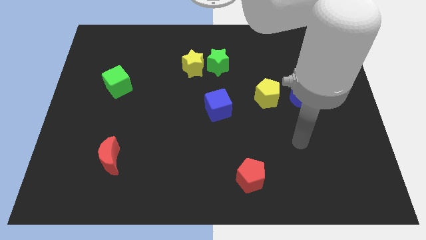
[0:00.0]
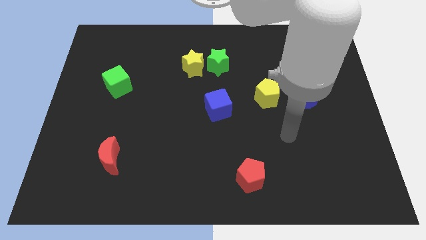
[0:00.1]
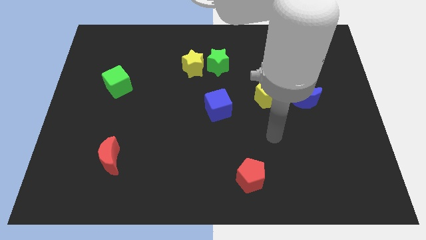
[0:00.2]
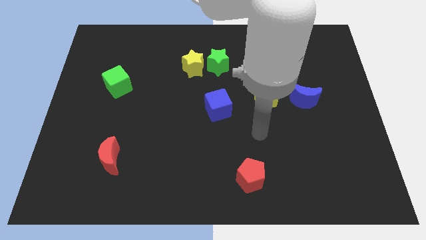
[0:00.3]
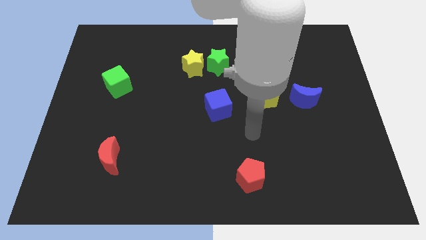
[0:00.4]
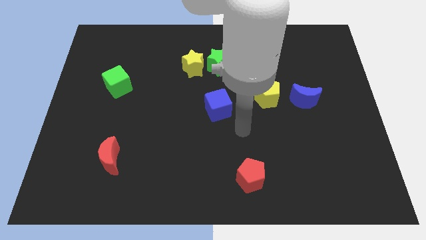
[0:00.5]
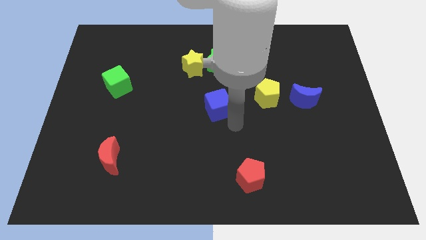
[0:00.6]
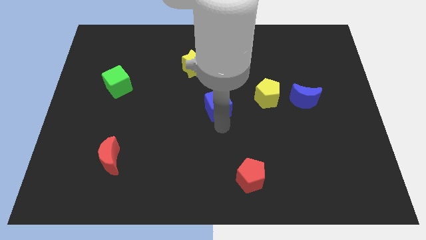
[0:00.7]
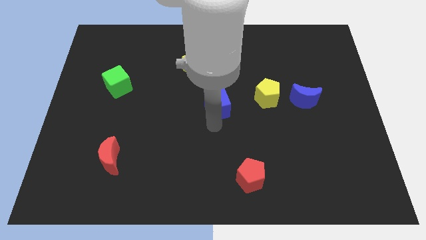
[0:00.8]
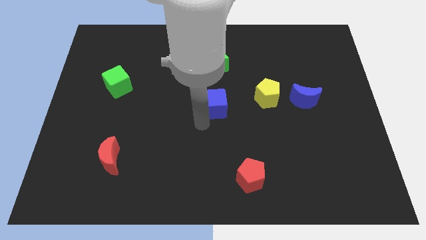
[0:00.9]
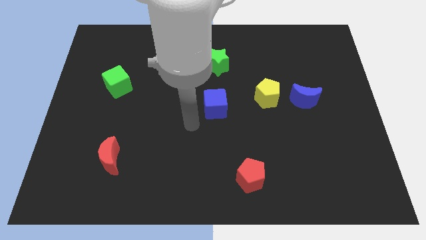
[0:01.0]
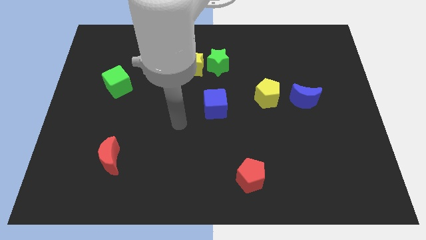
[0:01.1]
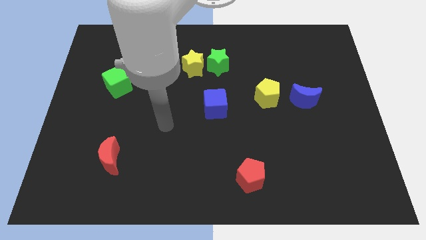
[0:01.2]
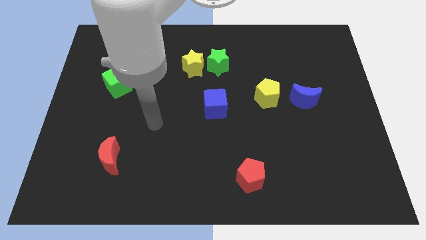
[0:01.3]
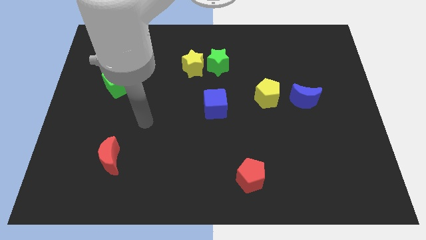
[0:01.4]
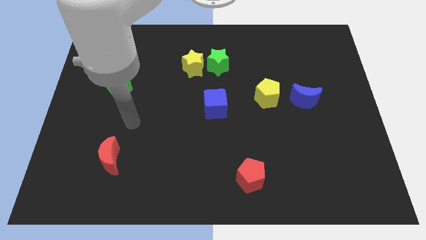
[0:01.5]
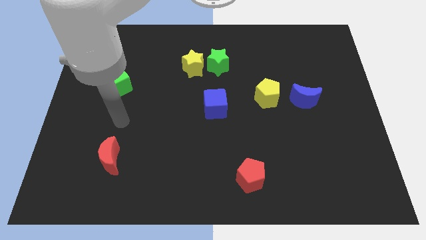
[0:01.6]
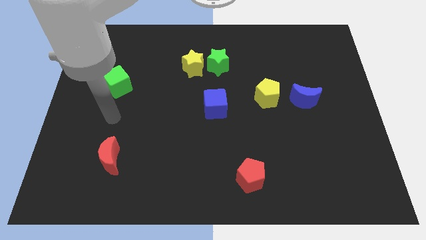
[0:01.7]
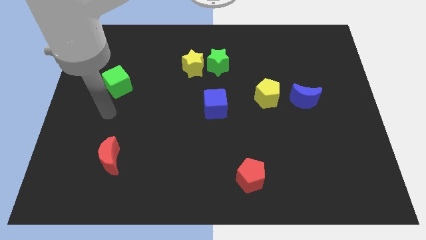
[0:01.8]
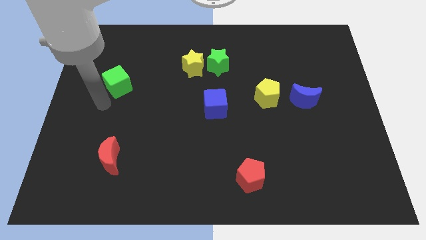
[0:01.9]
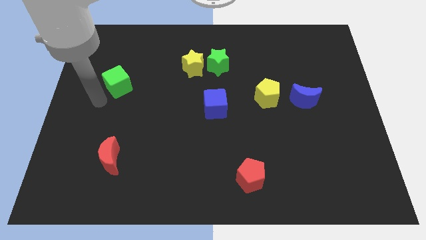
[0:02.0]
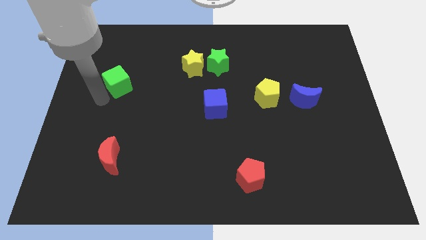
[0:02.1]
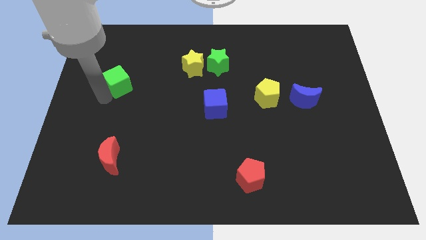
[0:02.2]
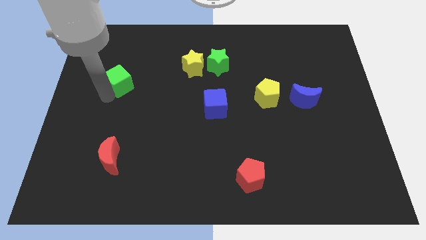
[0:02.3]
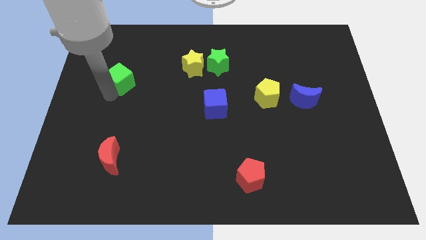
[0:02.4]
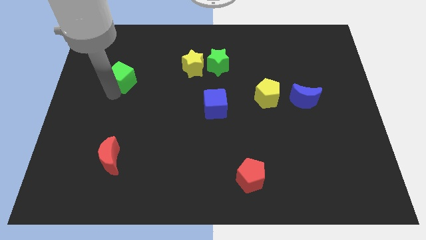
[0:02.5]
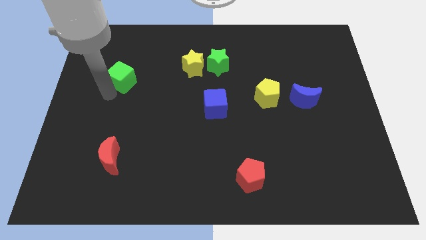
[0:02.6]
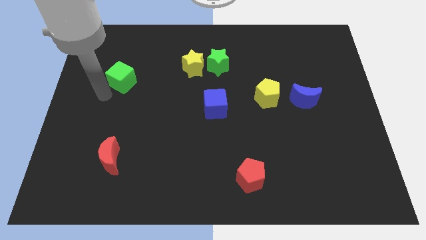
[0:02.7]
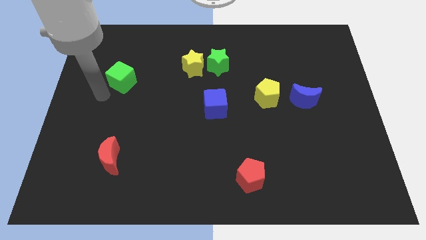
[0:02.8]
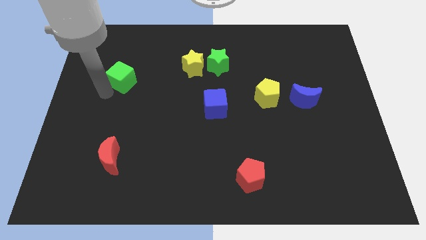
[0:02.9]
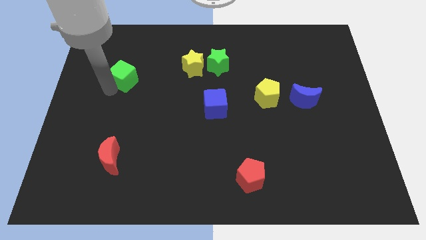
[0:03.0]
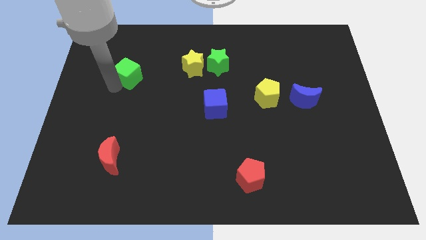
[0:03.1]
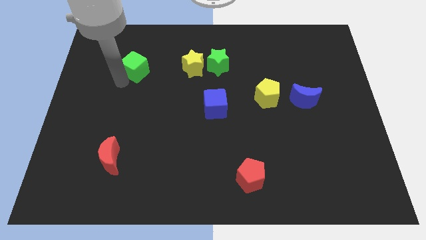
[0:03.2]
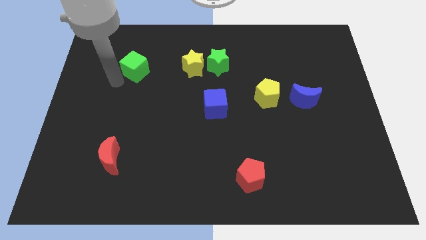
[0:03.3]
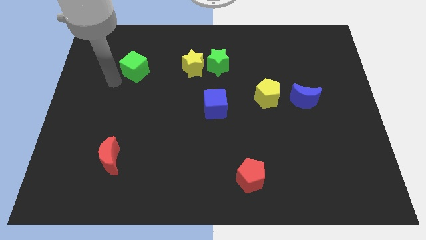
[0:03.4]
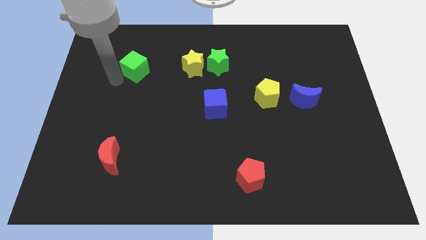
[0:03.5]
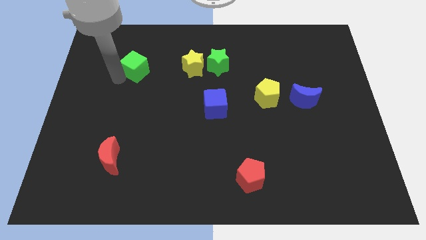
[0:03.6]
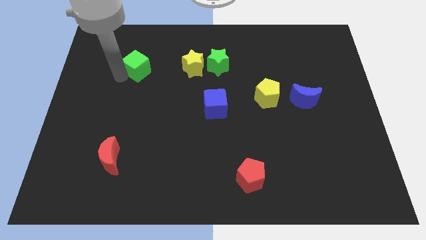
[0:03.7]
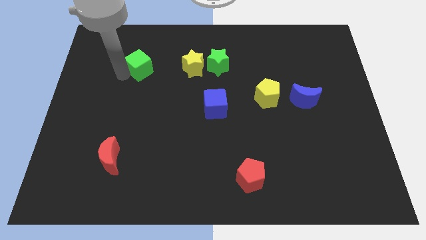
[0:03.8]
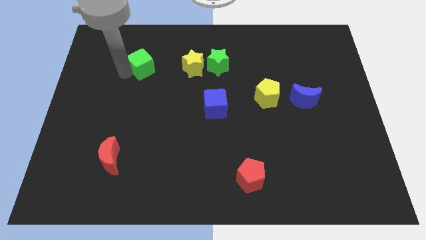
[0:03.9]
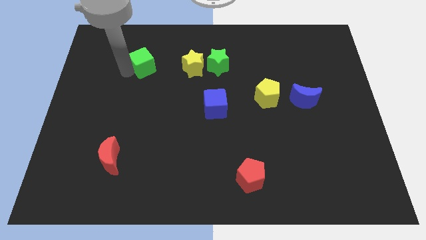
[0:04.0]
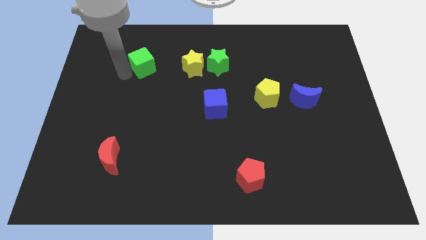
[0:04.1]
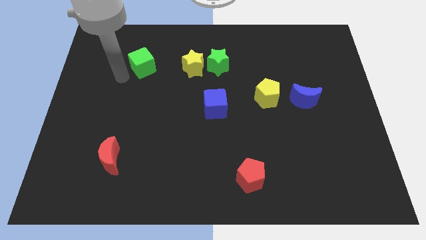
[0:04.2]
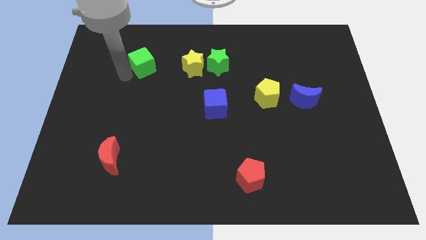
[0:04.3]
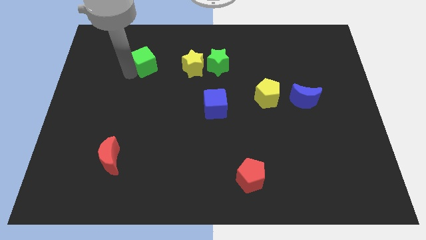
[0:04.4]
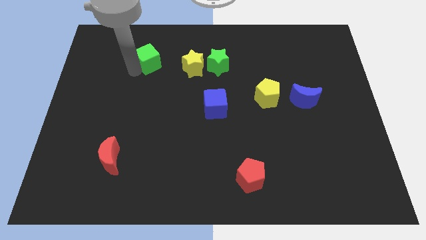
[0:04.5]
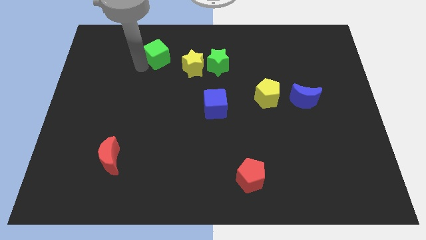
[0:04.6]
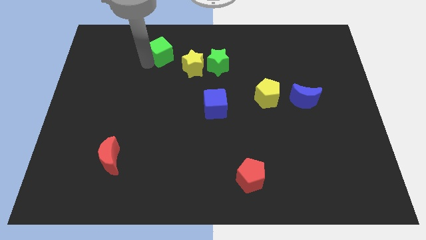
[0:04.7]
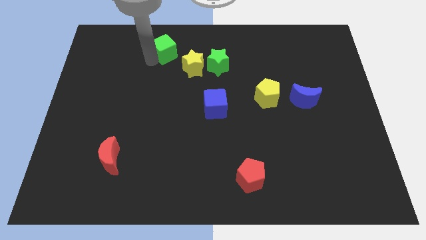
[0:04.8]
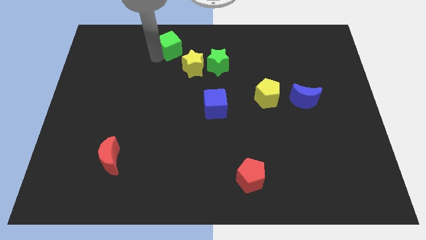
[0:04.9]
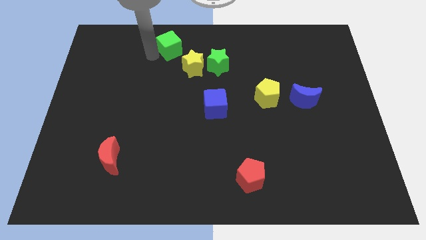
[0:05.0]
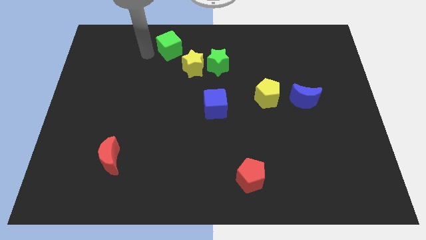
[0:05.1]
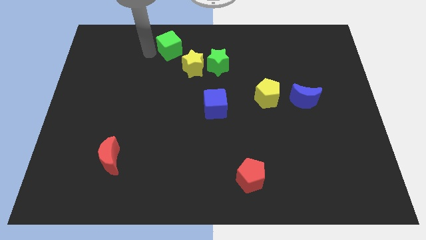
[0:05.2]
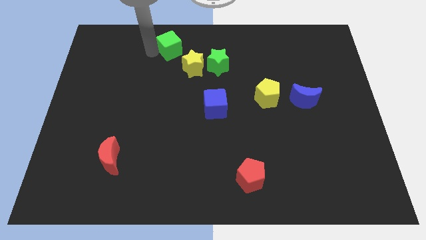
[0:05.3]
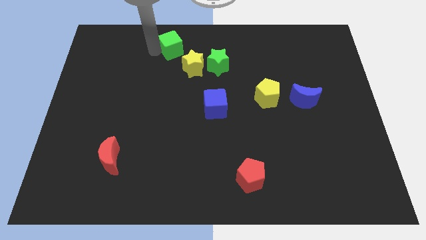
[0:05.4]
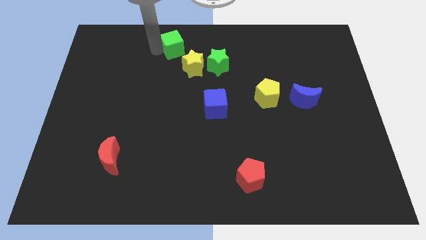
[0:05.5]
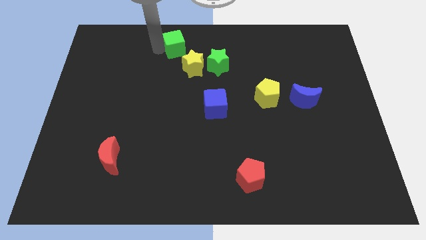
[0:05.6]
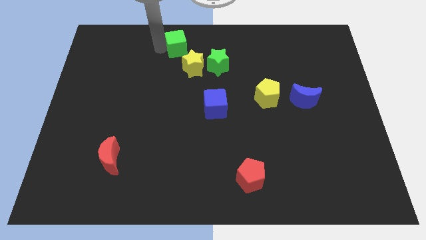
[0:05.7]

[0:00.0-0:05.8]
slide the green cube to the towards your base

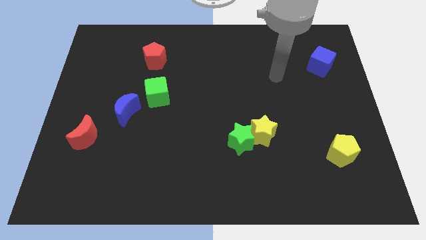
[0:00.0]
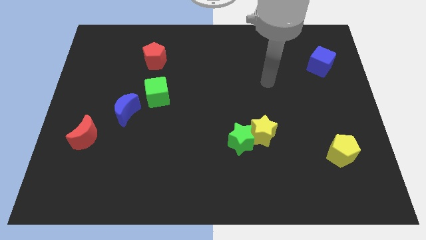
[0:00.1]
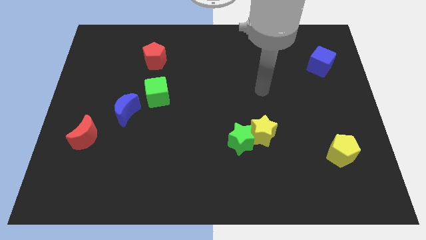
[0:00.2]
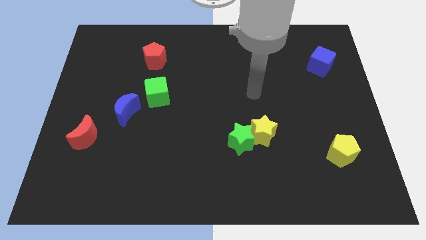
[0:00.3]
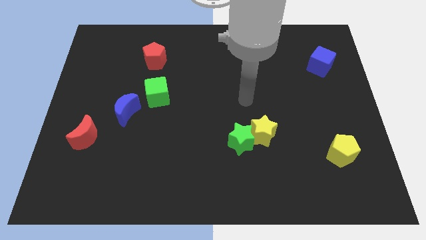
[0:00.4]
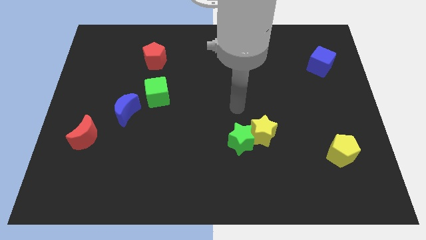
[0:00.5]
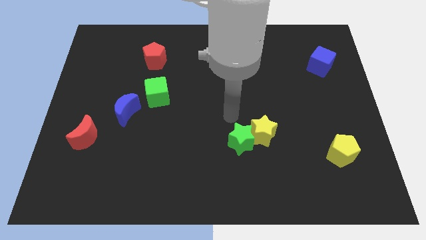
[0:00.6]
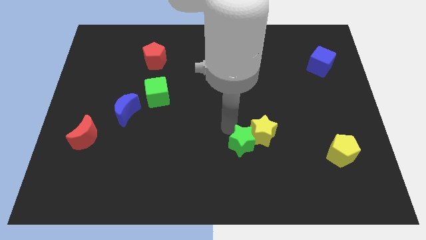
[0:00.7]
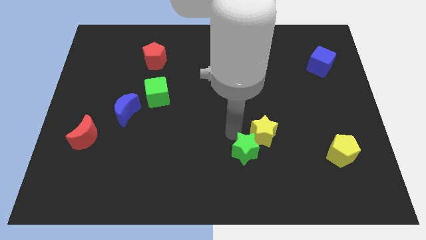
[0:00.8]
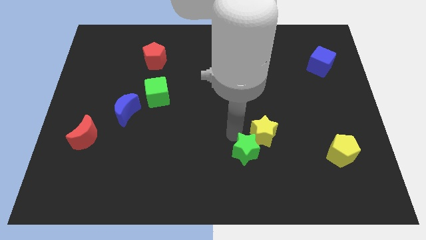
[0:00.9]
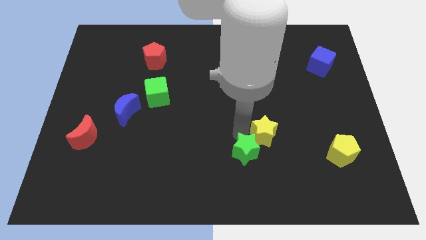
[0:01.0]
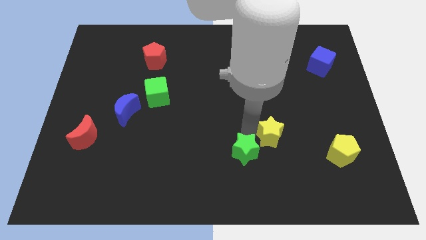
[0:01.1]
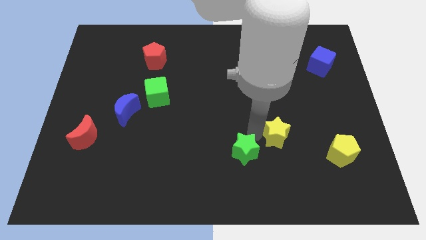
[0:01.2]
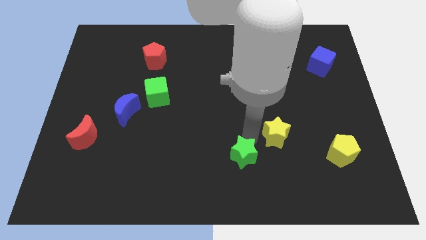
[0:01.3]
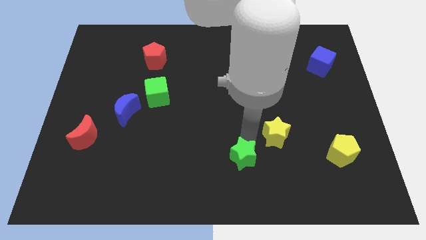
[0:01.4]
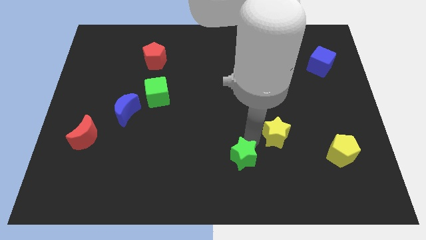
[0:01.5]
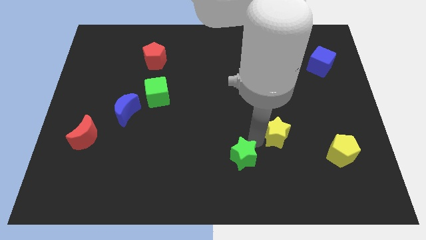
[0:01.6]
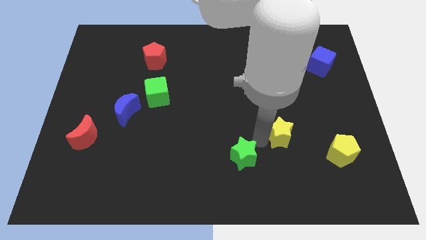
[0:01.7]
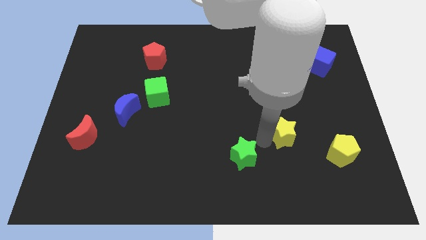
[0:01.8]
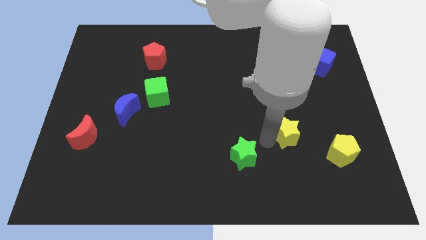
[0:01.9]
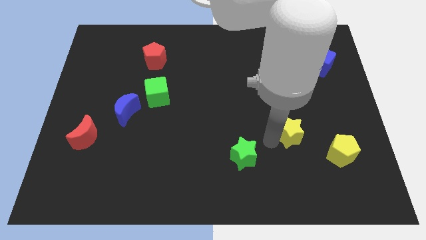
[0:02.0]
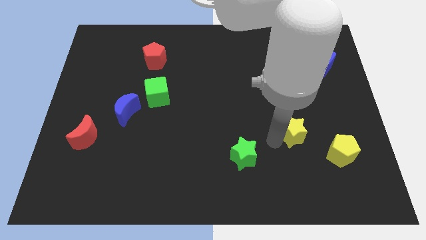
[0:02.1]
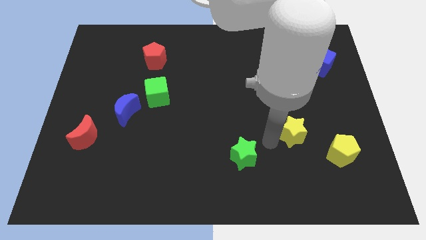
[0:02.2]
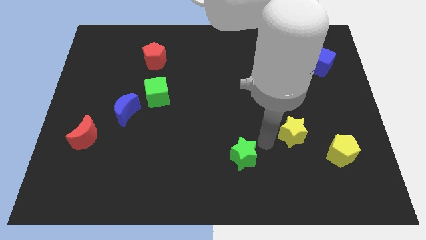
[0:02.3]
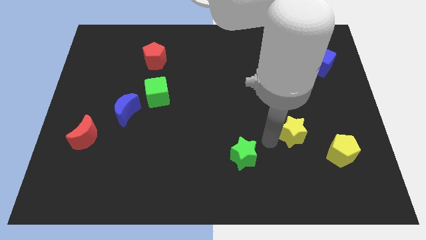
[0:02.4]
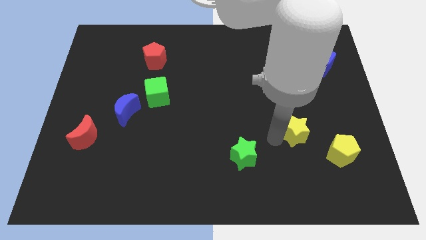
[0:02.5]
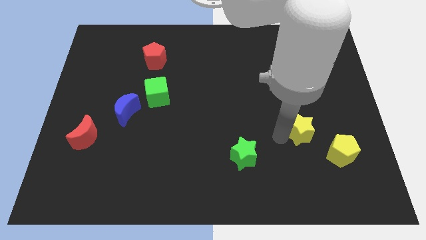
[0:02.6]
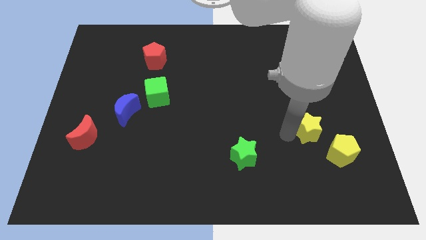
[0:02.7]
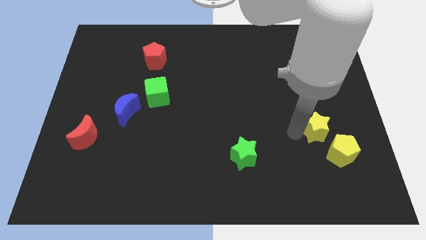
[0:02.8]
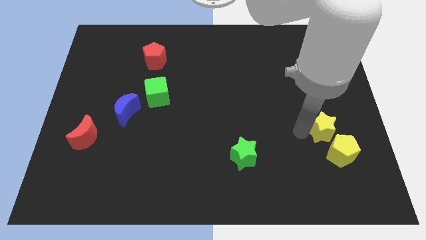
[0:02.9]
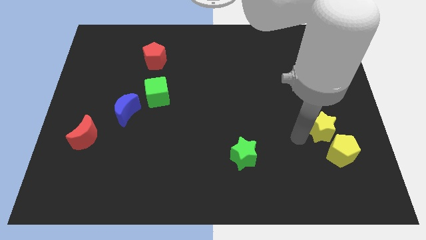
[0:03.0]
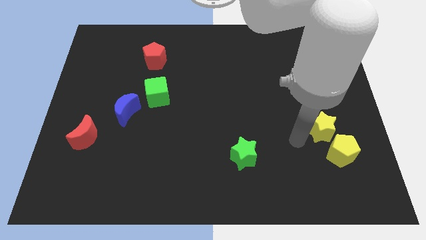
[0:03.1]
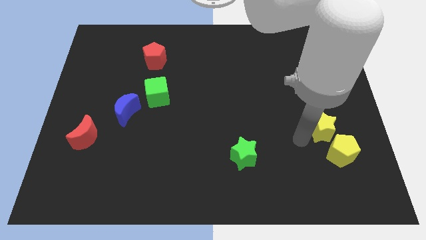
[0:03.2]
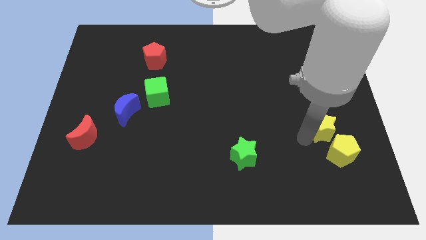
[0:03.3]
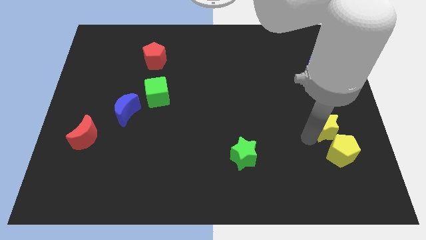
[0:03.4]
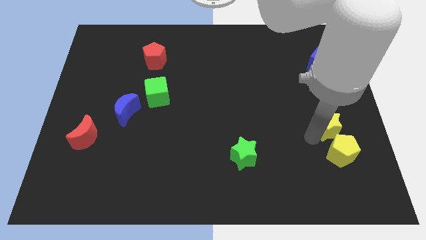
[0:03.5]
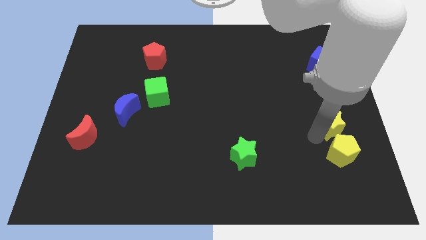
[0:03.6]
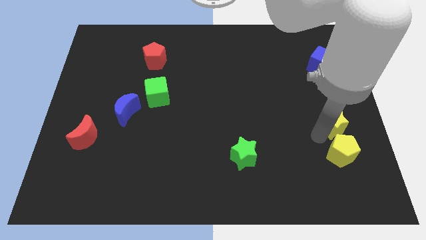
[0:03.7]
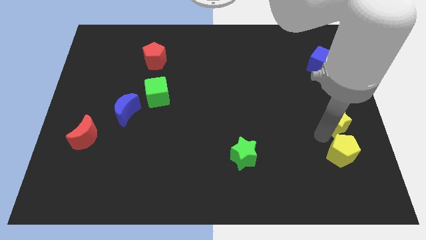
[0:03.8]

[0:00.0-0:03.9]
put the yellow star to the right side
